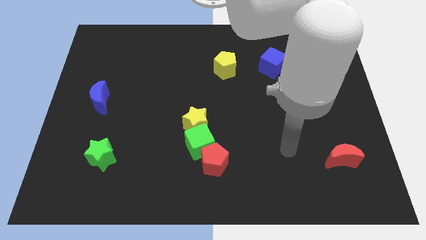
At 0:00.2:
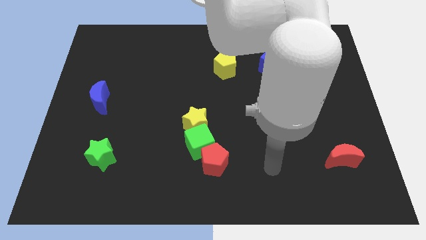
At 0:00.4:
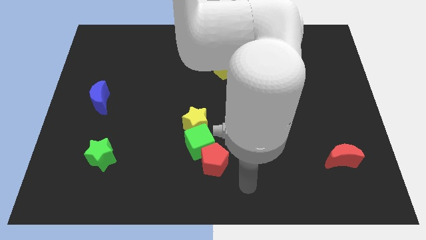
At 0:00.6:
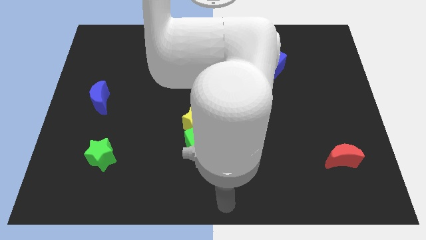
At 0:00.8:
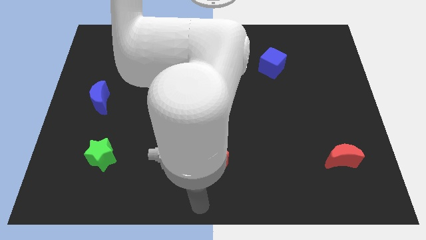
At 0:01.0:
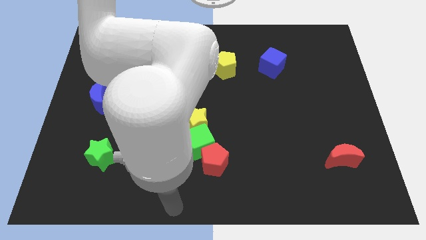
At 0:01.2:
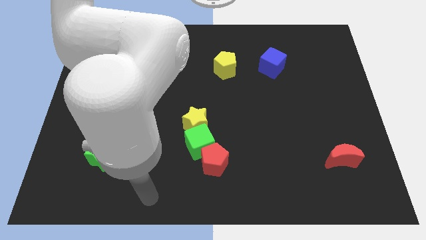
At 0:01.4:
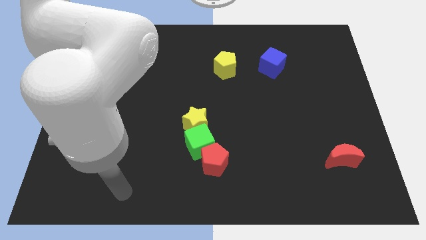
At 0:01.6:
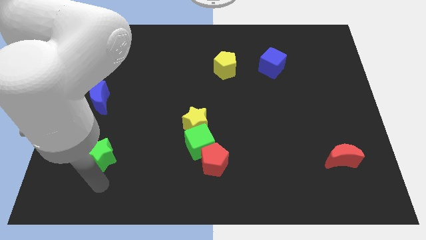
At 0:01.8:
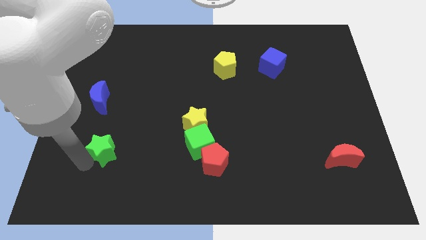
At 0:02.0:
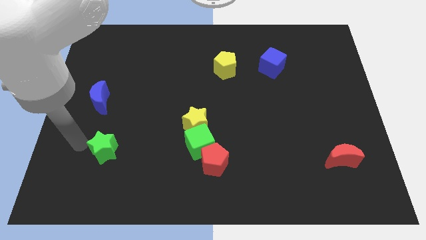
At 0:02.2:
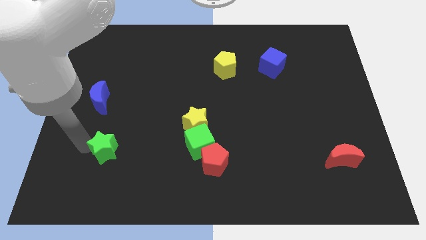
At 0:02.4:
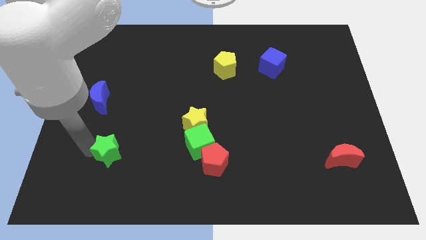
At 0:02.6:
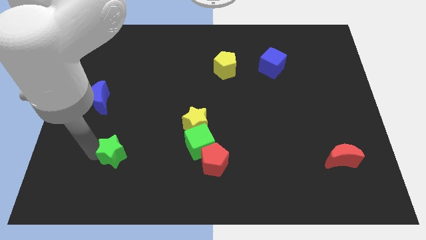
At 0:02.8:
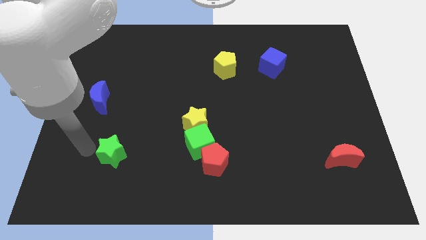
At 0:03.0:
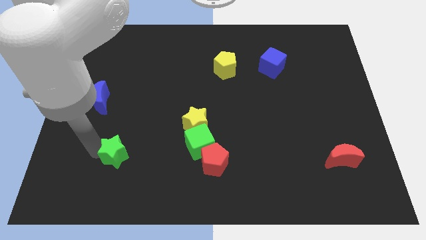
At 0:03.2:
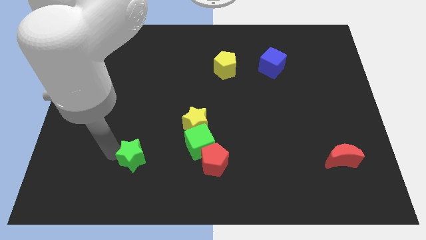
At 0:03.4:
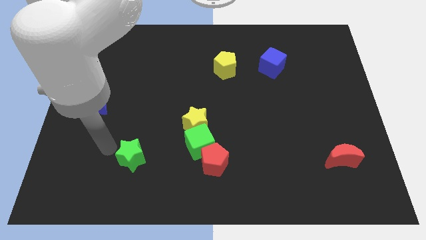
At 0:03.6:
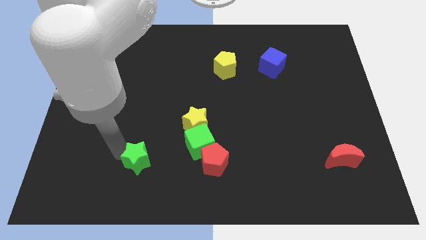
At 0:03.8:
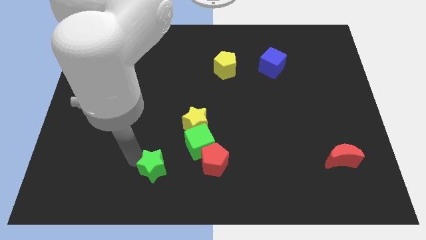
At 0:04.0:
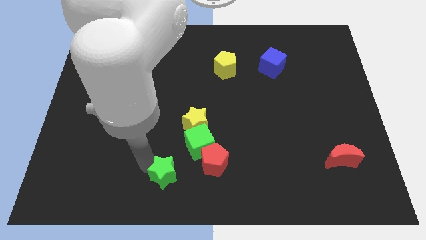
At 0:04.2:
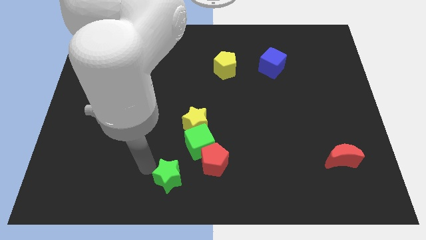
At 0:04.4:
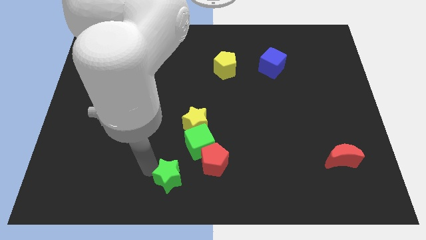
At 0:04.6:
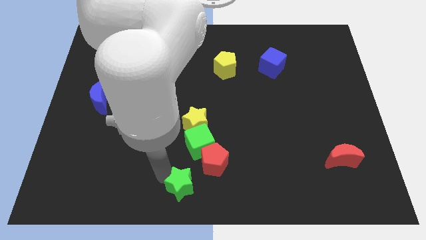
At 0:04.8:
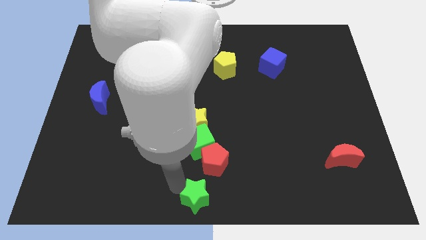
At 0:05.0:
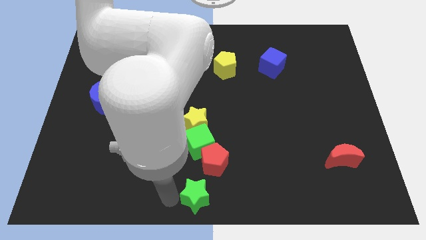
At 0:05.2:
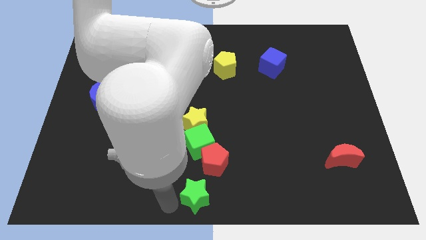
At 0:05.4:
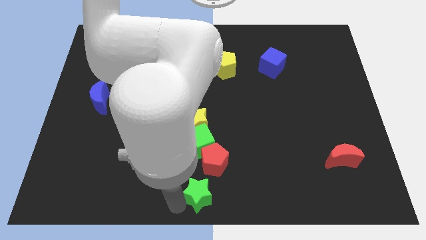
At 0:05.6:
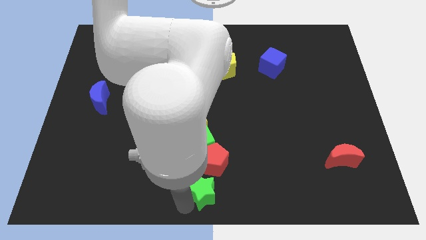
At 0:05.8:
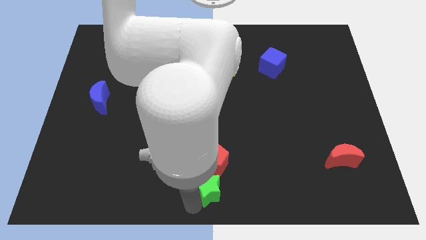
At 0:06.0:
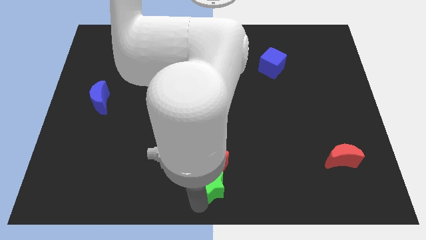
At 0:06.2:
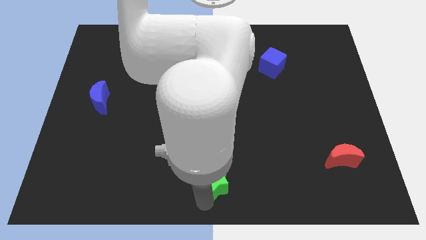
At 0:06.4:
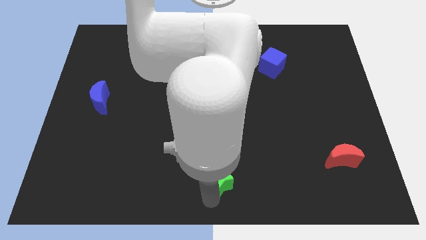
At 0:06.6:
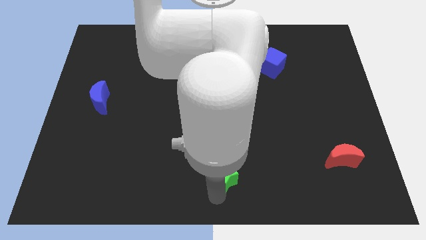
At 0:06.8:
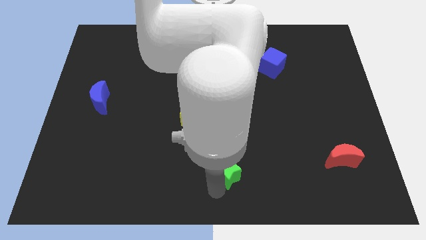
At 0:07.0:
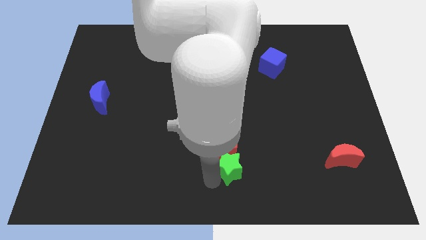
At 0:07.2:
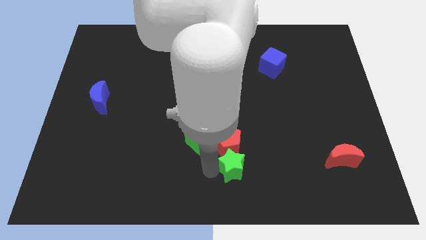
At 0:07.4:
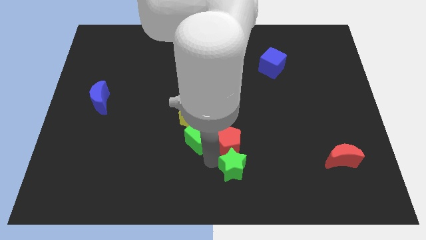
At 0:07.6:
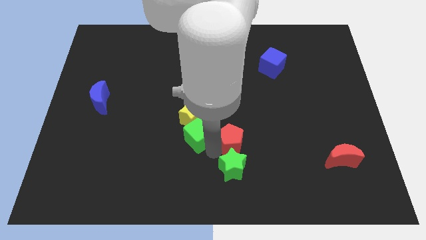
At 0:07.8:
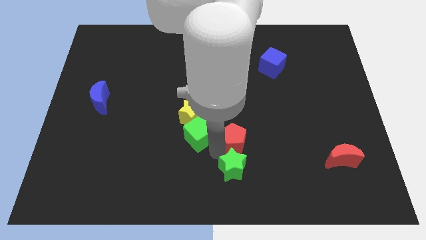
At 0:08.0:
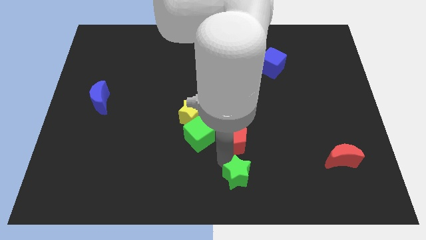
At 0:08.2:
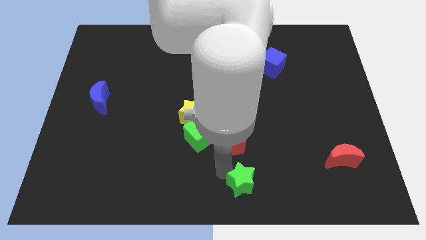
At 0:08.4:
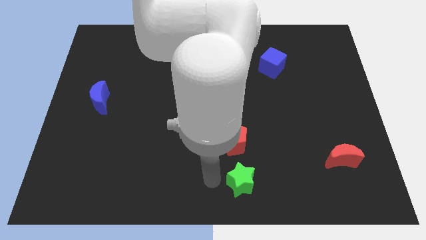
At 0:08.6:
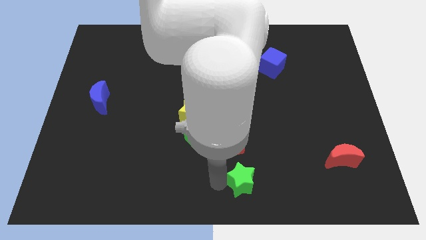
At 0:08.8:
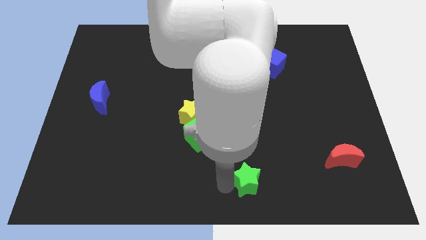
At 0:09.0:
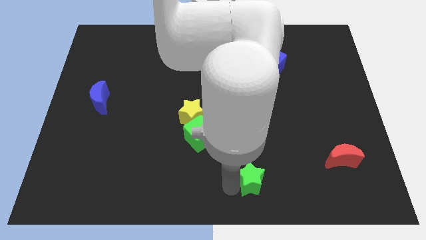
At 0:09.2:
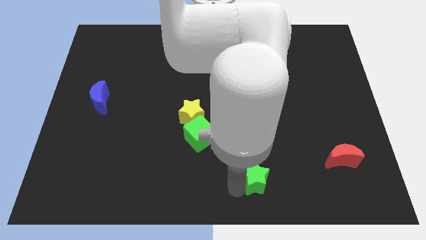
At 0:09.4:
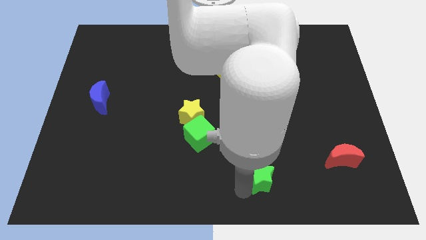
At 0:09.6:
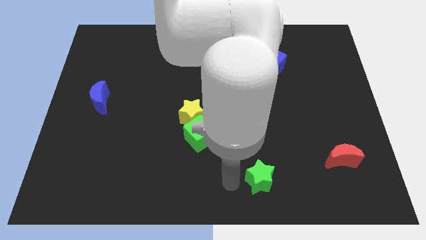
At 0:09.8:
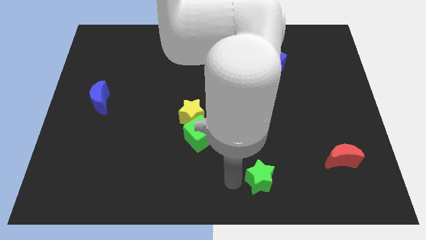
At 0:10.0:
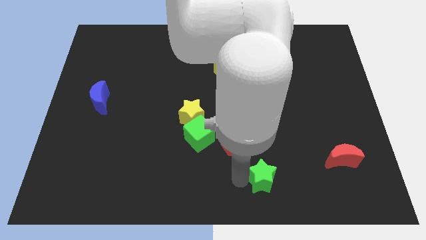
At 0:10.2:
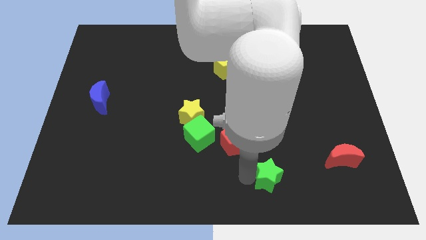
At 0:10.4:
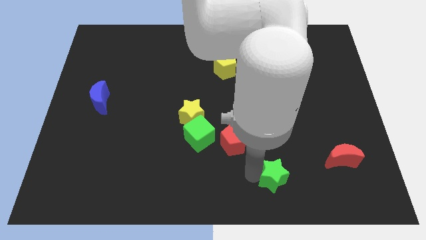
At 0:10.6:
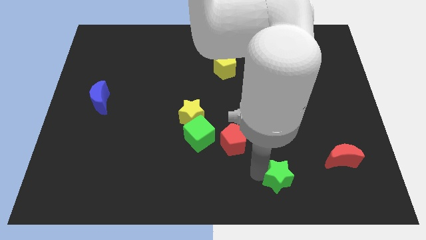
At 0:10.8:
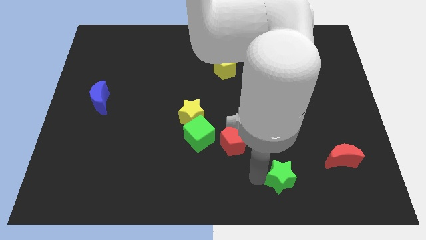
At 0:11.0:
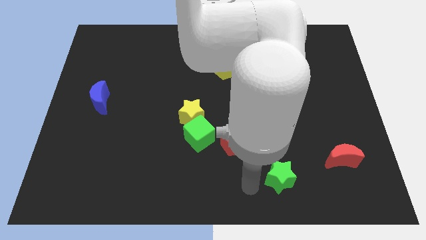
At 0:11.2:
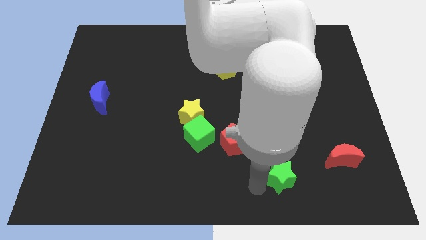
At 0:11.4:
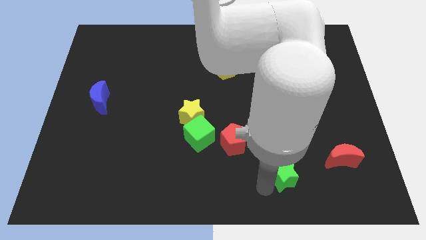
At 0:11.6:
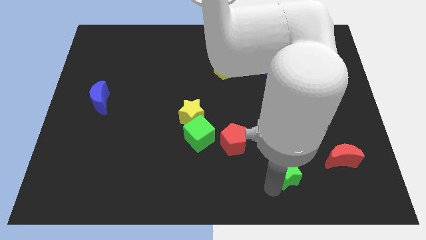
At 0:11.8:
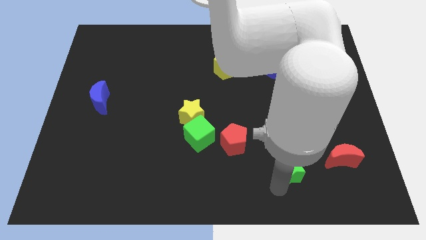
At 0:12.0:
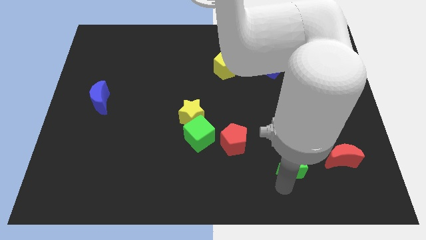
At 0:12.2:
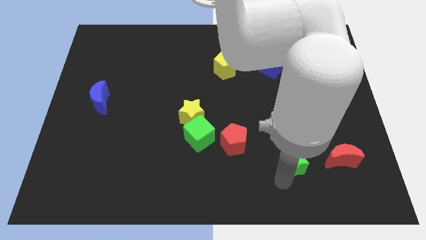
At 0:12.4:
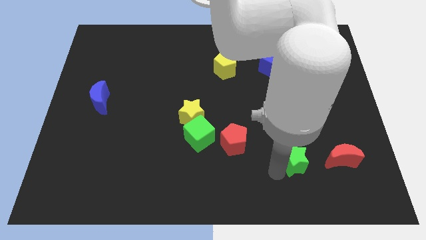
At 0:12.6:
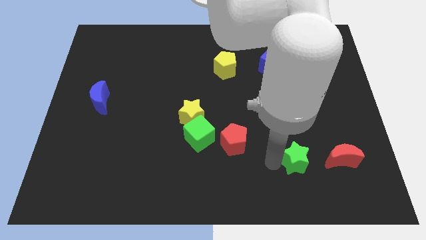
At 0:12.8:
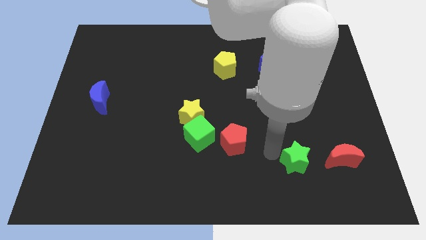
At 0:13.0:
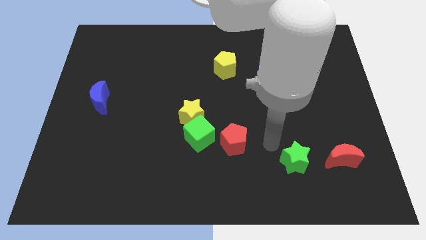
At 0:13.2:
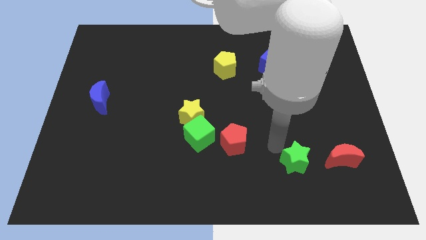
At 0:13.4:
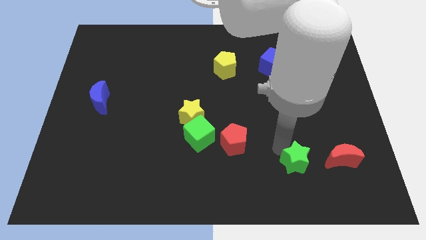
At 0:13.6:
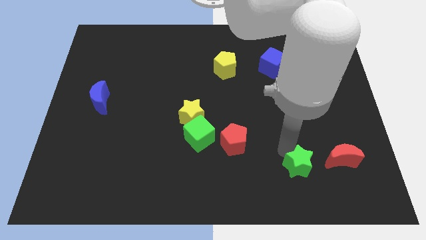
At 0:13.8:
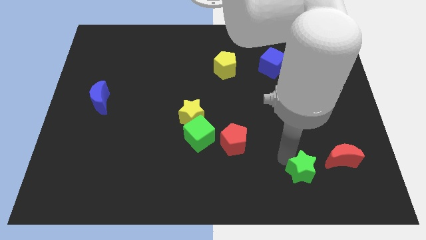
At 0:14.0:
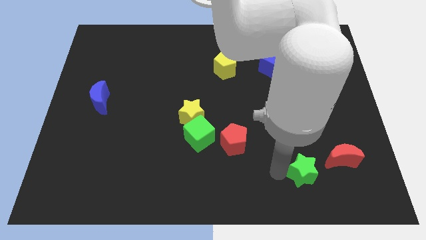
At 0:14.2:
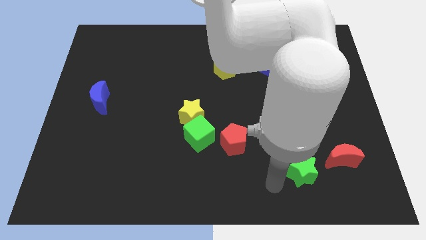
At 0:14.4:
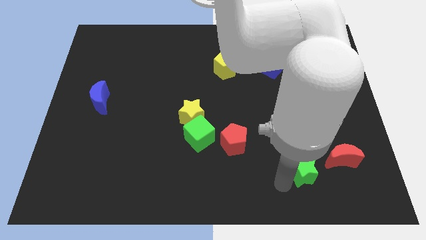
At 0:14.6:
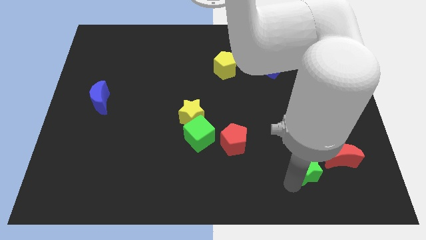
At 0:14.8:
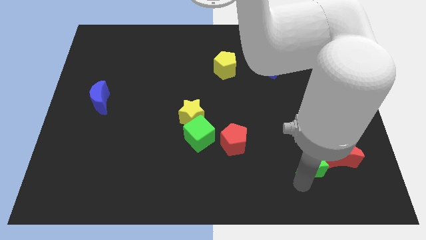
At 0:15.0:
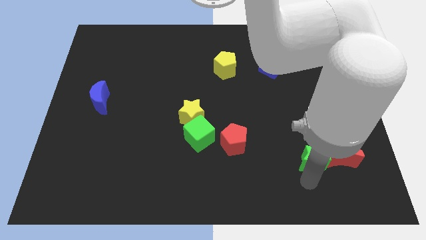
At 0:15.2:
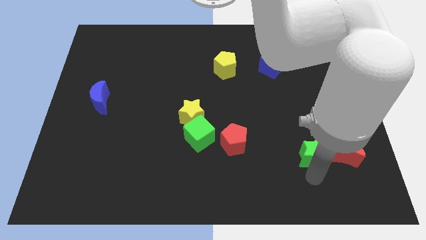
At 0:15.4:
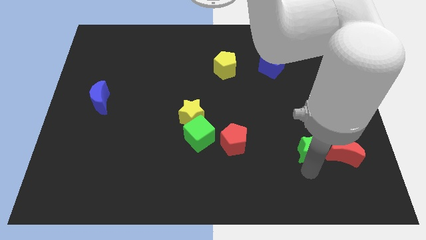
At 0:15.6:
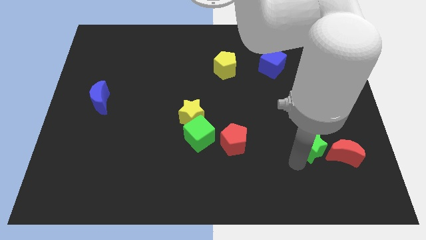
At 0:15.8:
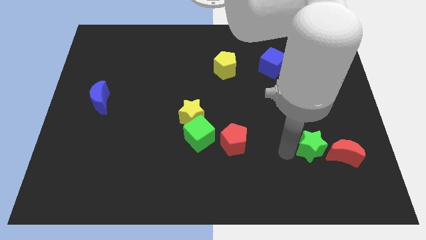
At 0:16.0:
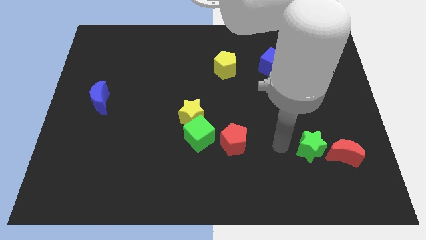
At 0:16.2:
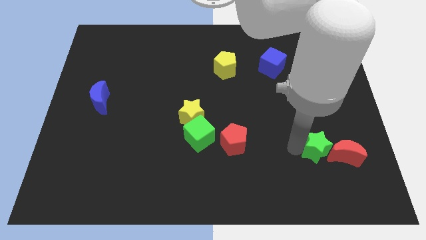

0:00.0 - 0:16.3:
move the green star close to the red moon

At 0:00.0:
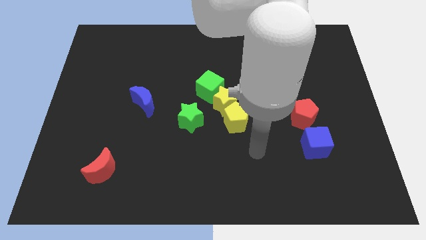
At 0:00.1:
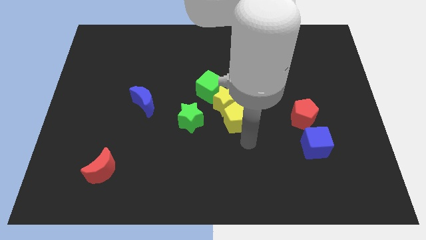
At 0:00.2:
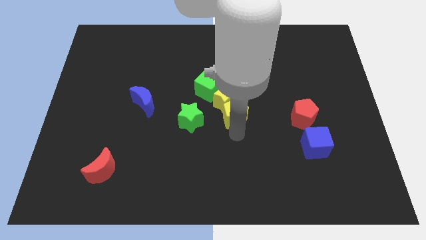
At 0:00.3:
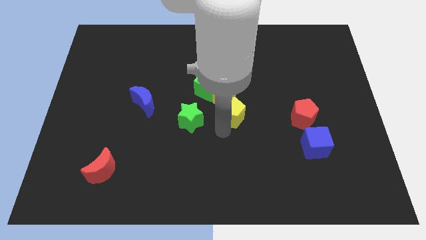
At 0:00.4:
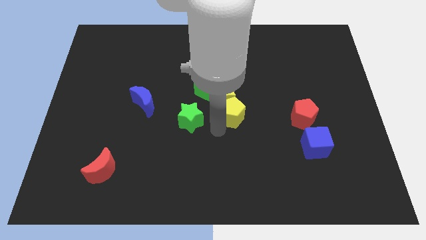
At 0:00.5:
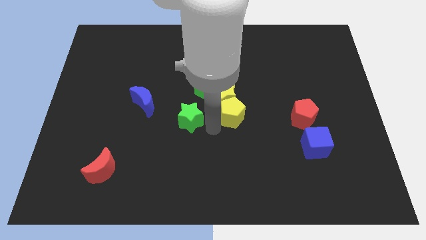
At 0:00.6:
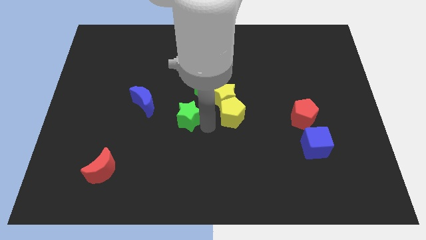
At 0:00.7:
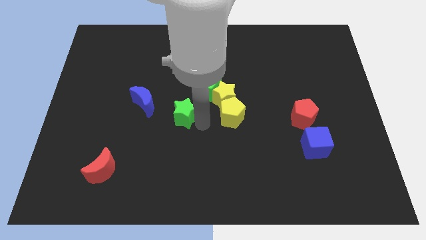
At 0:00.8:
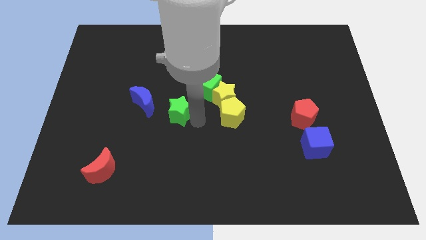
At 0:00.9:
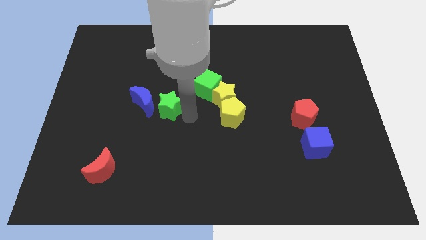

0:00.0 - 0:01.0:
put the green star to the blue moon
